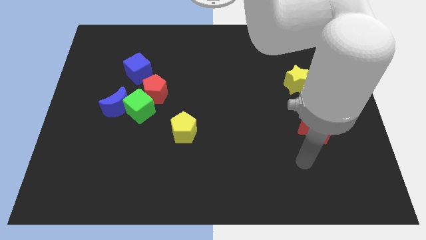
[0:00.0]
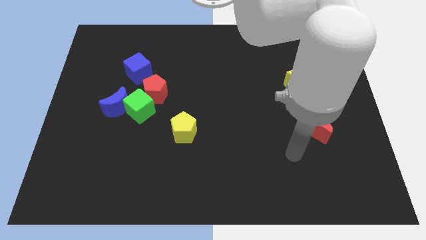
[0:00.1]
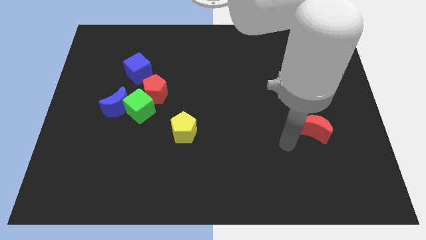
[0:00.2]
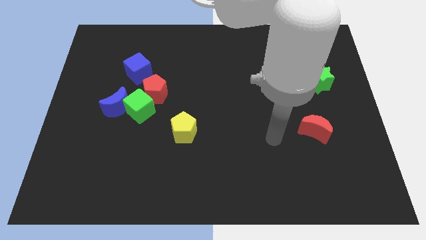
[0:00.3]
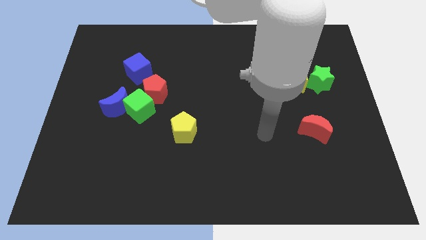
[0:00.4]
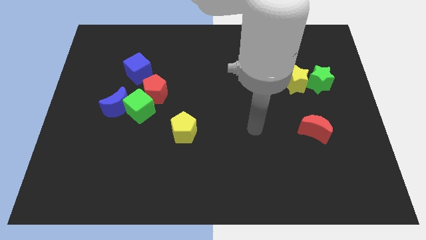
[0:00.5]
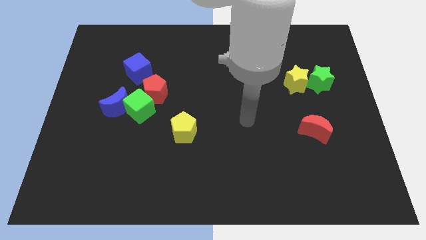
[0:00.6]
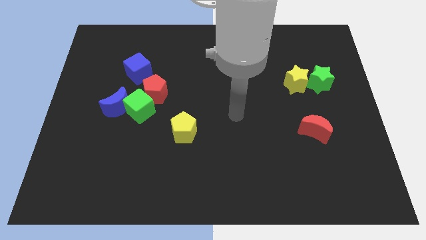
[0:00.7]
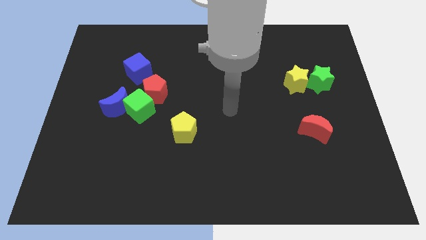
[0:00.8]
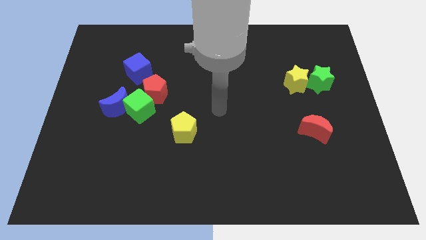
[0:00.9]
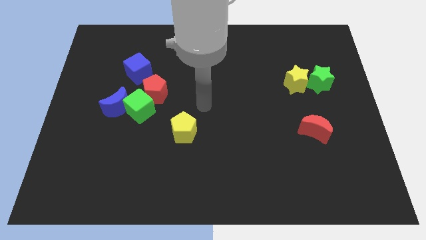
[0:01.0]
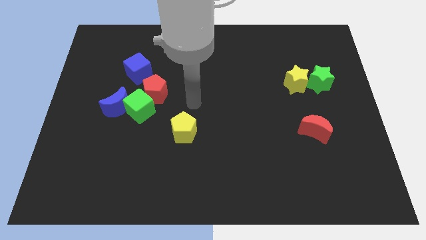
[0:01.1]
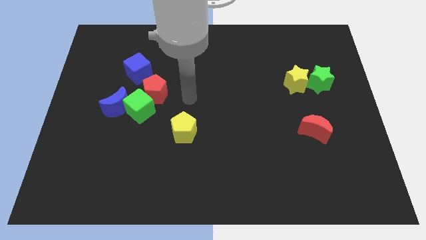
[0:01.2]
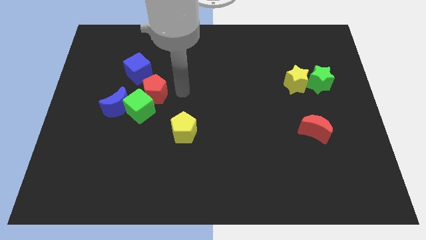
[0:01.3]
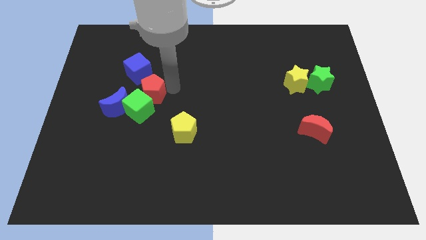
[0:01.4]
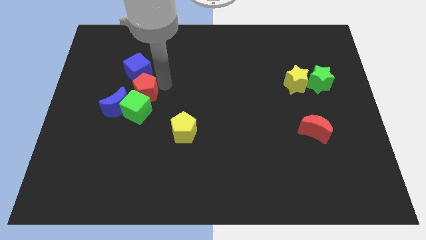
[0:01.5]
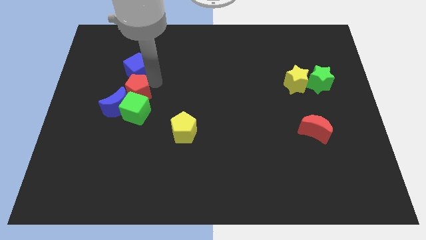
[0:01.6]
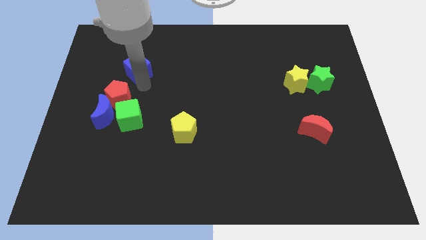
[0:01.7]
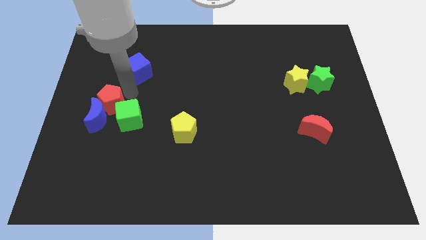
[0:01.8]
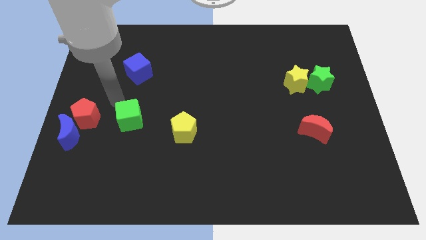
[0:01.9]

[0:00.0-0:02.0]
move the green cube away from the blue moon and red pentagon

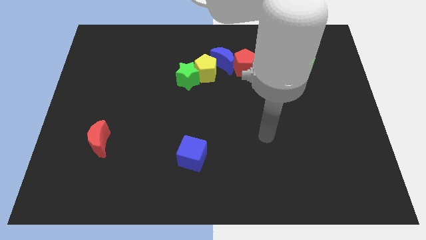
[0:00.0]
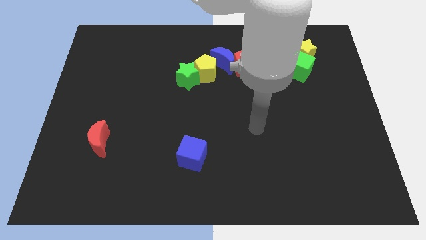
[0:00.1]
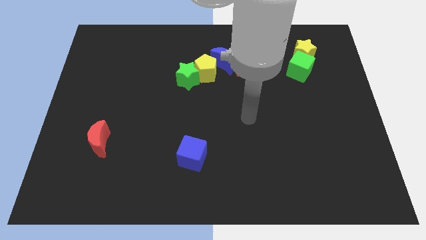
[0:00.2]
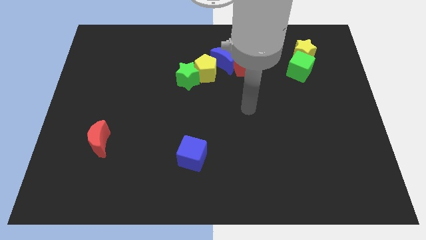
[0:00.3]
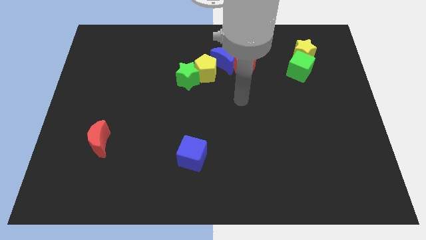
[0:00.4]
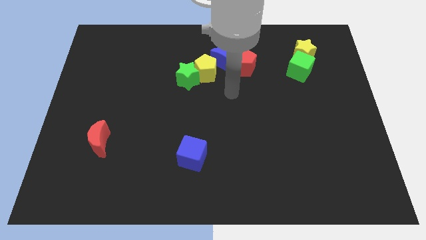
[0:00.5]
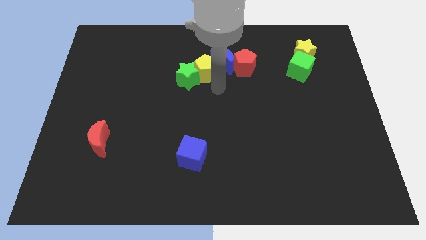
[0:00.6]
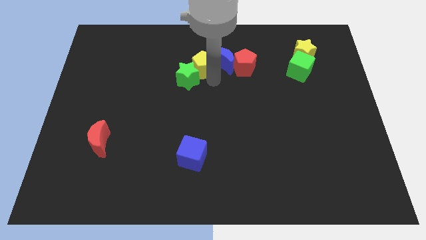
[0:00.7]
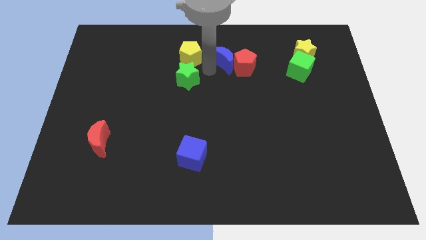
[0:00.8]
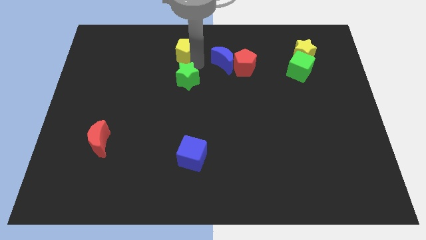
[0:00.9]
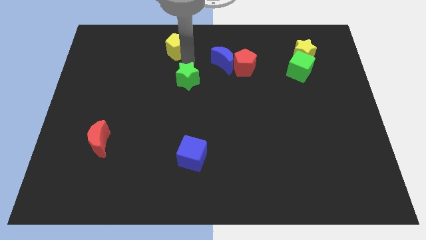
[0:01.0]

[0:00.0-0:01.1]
pull the green star apart from the yellow pentagon

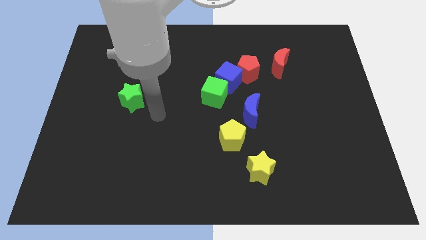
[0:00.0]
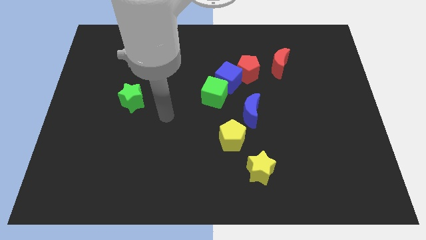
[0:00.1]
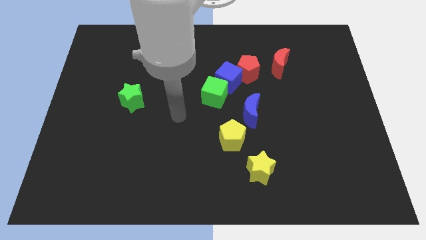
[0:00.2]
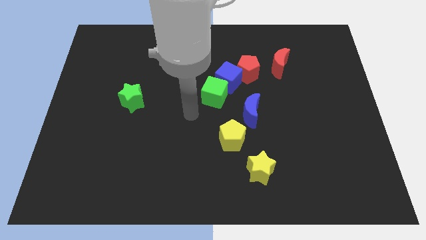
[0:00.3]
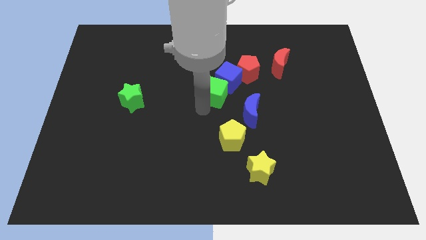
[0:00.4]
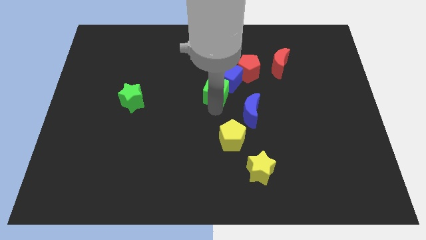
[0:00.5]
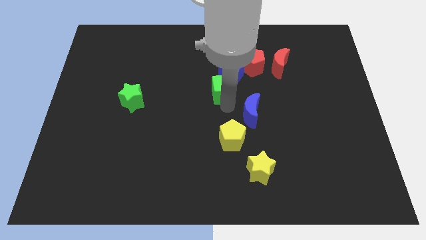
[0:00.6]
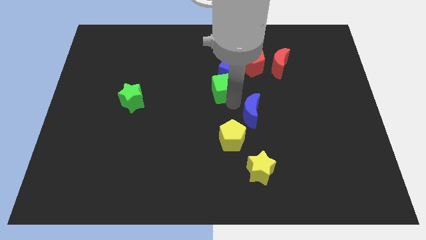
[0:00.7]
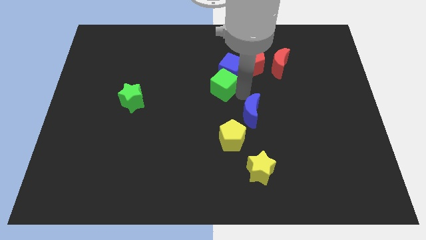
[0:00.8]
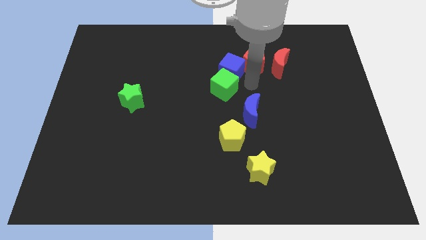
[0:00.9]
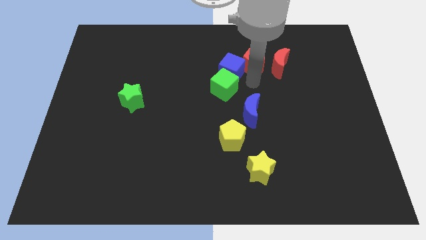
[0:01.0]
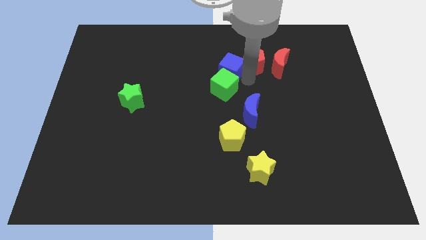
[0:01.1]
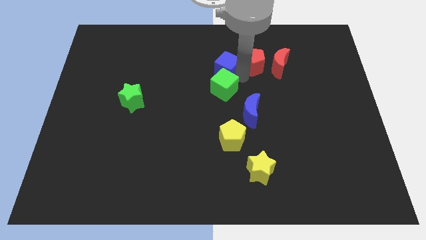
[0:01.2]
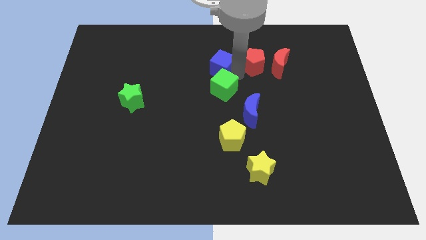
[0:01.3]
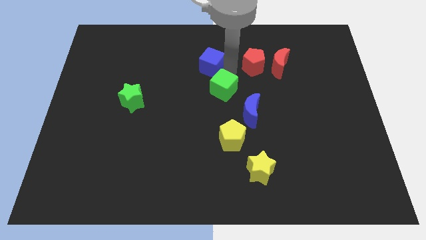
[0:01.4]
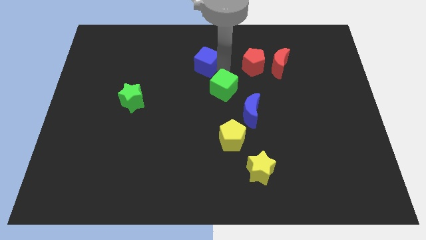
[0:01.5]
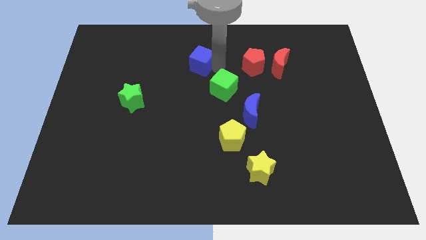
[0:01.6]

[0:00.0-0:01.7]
pull the blue cube apart from the red pentagon and green cube

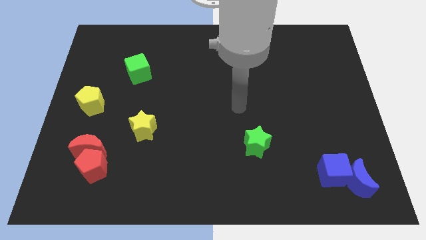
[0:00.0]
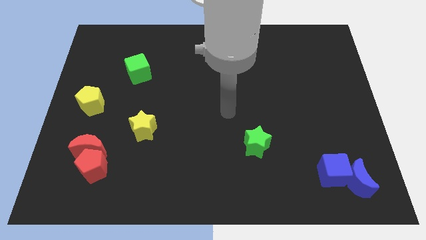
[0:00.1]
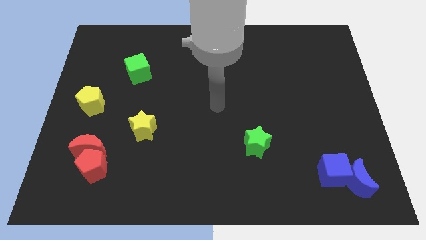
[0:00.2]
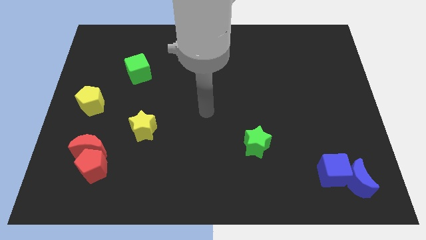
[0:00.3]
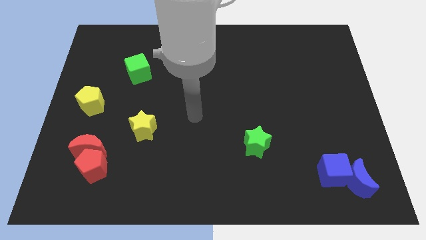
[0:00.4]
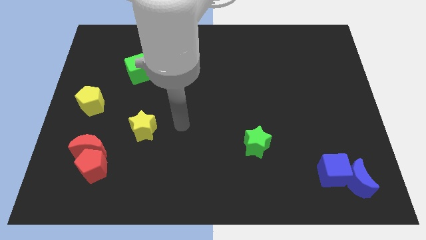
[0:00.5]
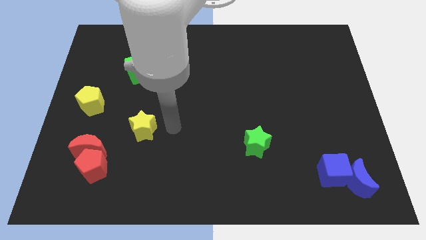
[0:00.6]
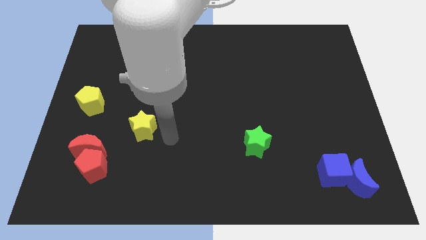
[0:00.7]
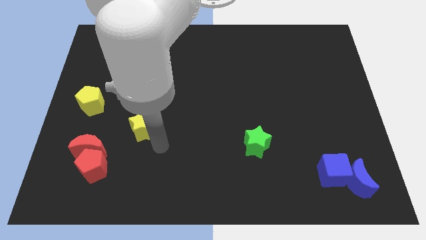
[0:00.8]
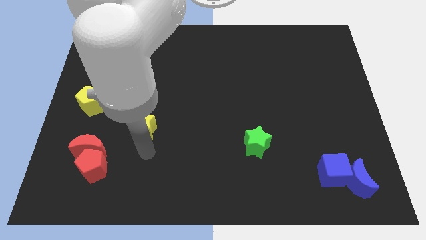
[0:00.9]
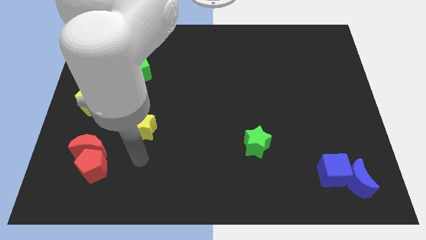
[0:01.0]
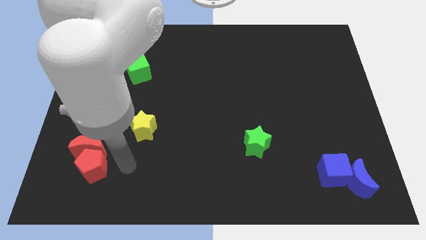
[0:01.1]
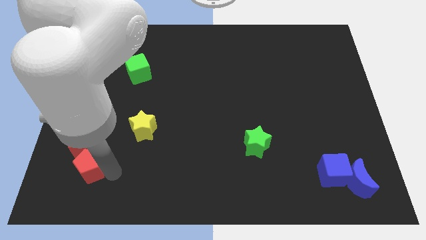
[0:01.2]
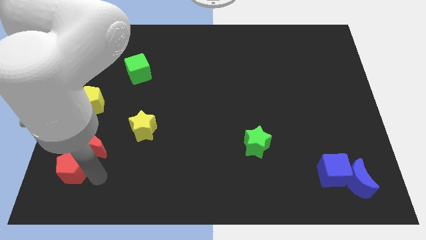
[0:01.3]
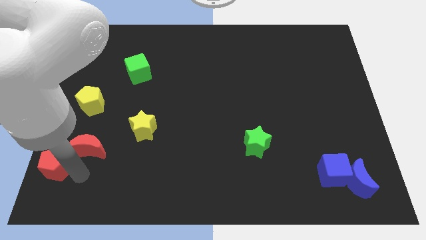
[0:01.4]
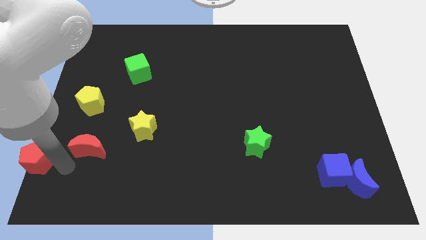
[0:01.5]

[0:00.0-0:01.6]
separate the red moon from the red pentagon

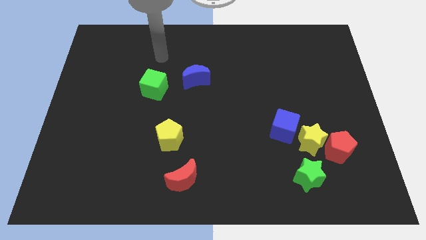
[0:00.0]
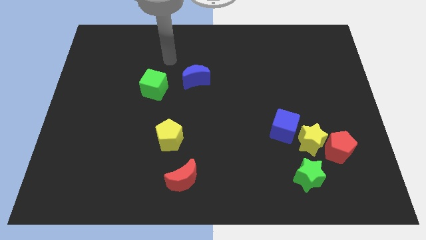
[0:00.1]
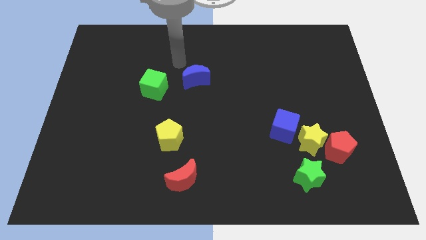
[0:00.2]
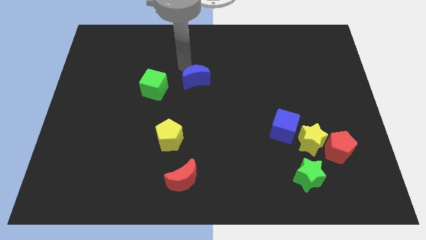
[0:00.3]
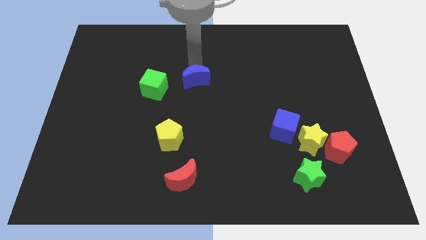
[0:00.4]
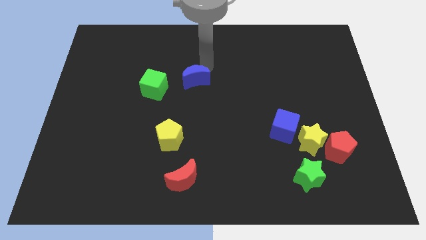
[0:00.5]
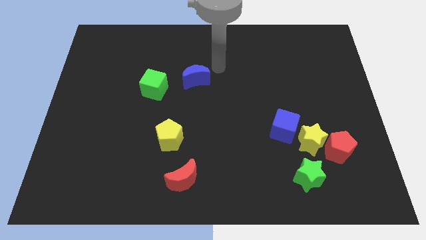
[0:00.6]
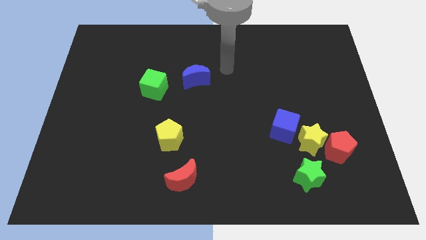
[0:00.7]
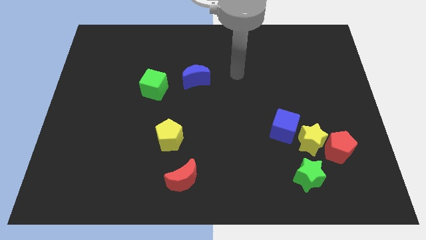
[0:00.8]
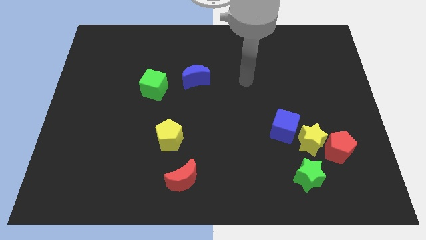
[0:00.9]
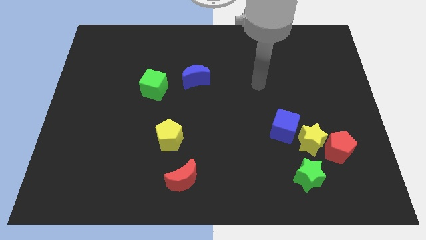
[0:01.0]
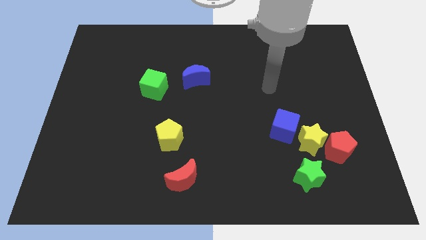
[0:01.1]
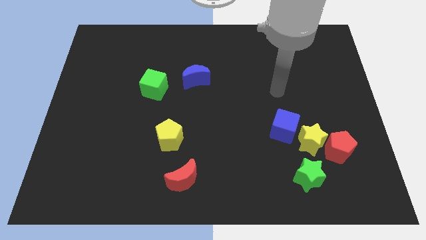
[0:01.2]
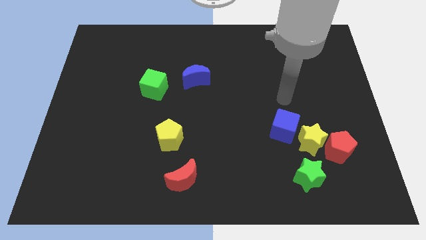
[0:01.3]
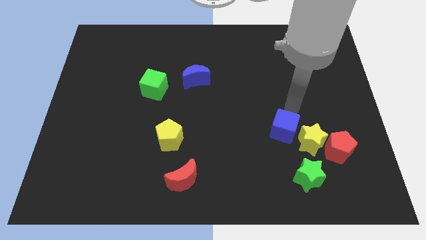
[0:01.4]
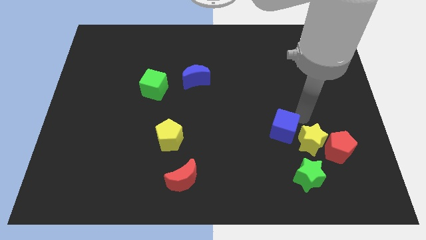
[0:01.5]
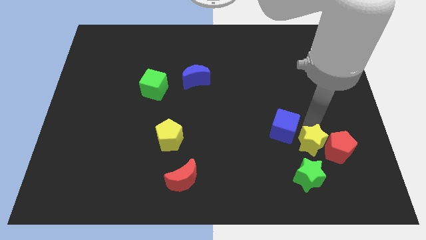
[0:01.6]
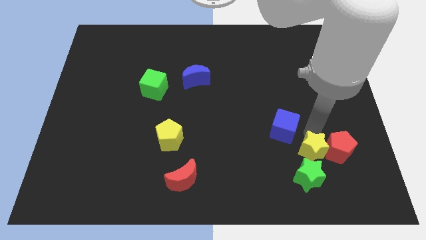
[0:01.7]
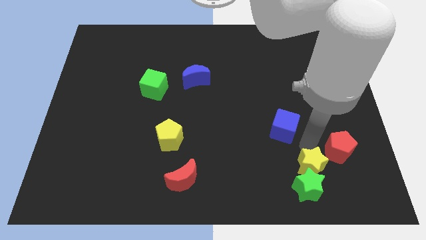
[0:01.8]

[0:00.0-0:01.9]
move the blue cube away from the yellow star

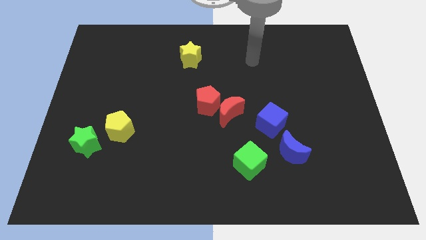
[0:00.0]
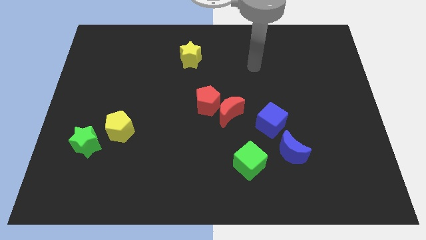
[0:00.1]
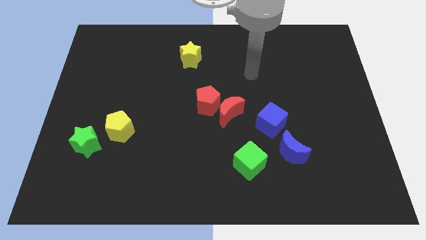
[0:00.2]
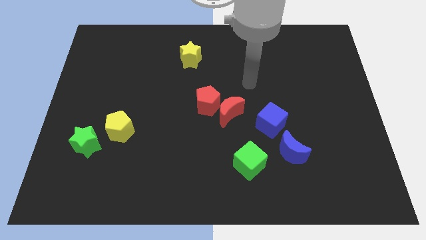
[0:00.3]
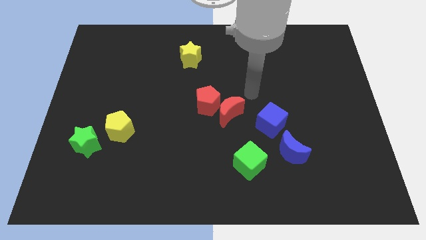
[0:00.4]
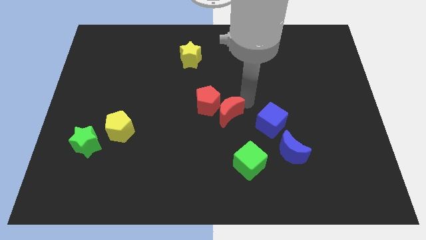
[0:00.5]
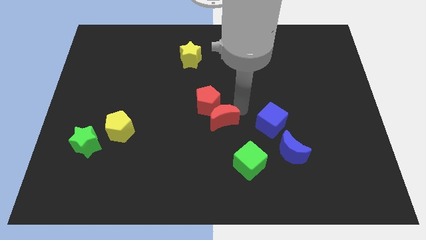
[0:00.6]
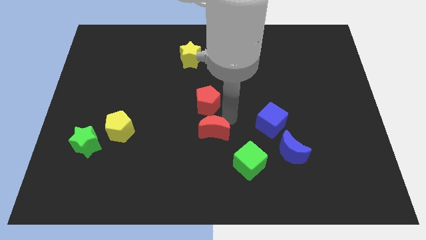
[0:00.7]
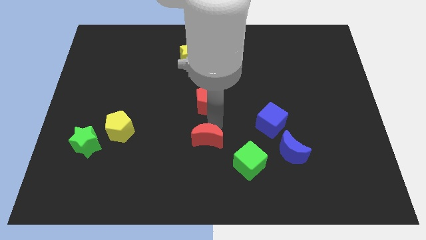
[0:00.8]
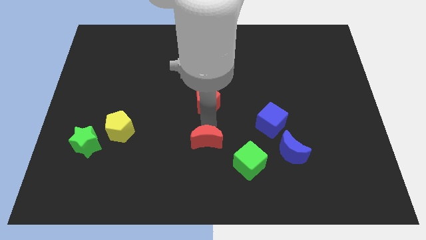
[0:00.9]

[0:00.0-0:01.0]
separate the red pentagon from the red moon

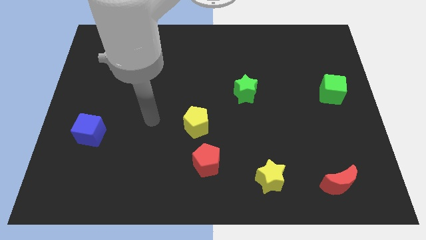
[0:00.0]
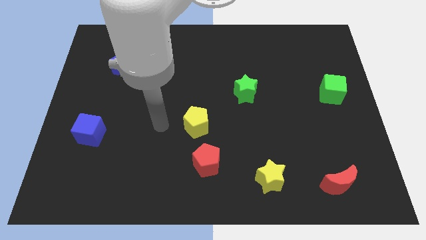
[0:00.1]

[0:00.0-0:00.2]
separate the red pentagon from the yellow pentagon
